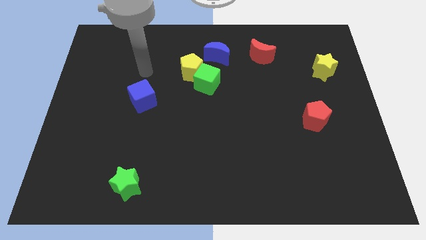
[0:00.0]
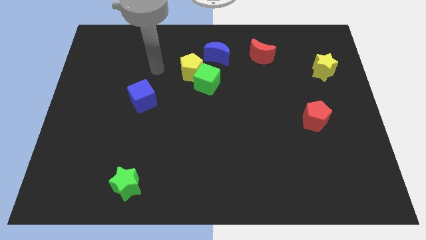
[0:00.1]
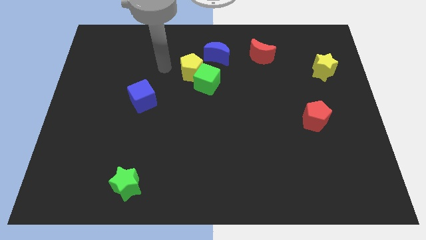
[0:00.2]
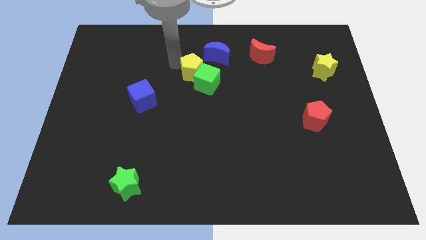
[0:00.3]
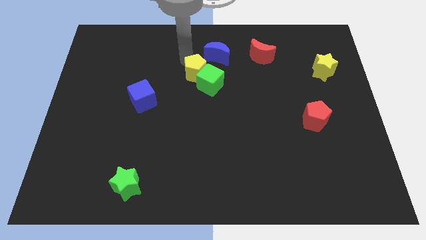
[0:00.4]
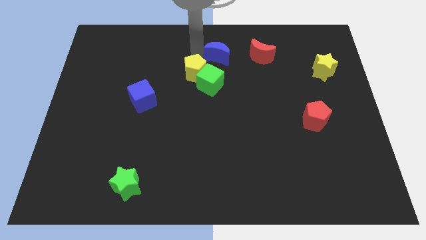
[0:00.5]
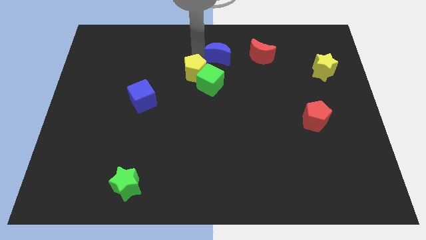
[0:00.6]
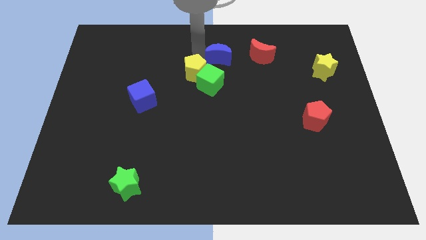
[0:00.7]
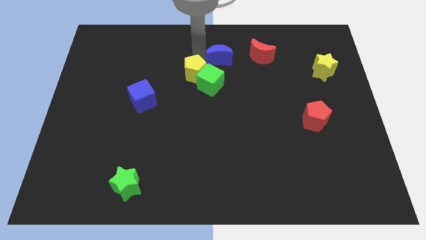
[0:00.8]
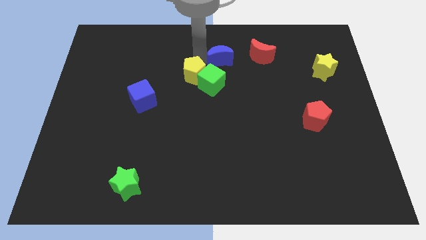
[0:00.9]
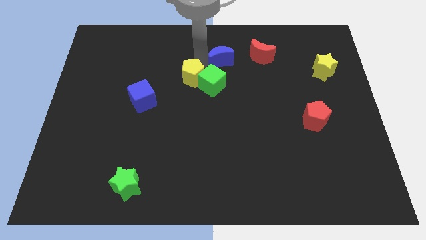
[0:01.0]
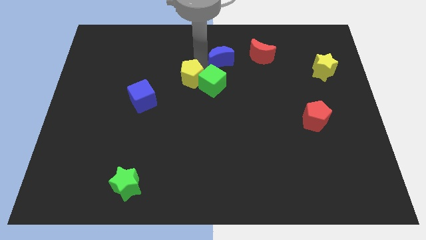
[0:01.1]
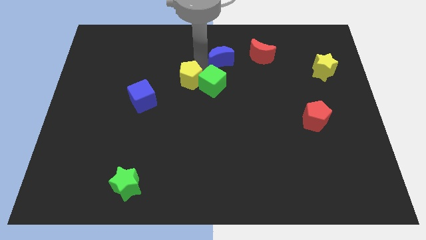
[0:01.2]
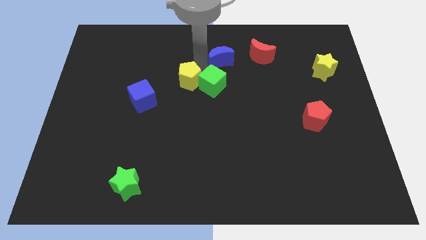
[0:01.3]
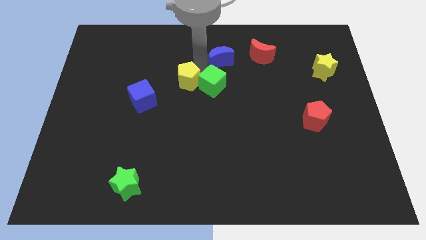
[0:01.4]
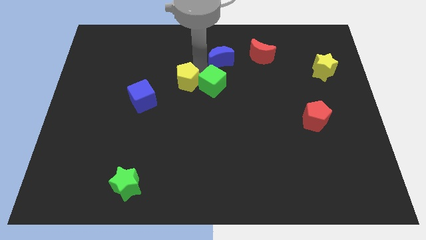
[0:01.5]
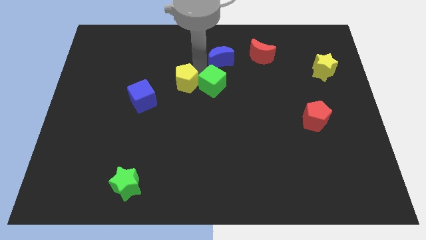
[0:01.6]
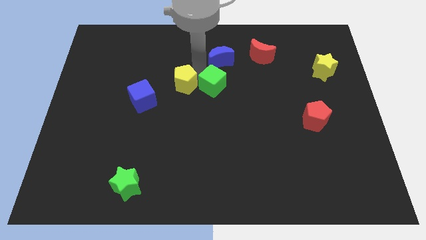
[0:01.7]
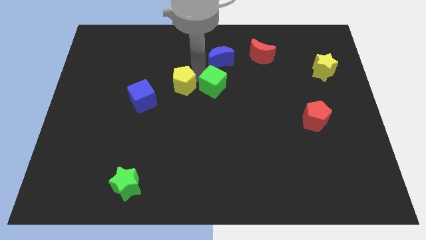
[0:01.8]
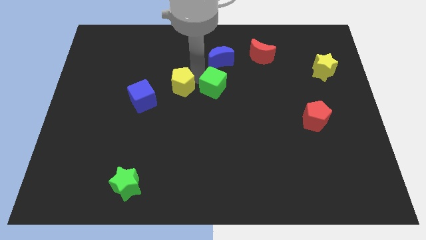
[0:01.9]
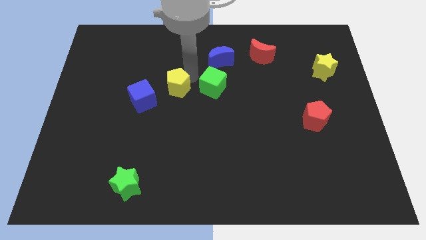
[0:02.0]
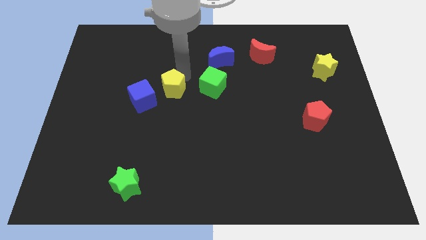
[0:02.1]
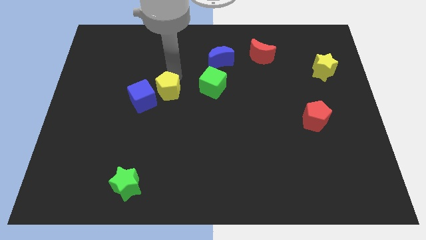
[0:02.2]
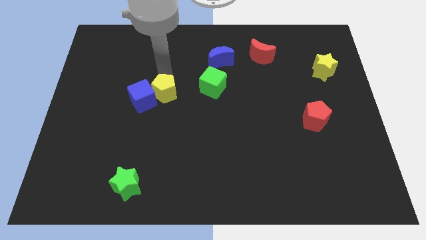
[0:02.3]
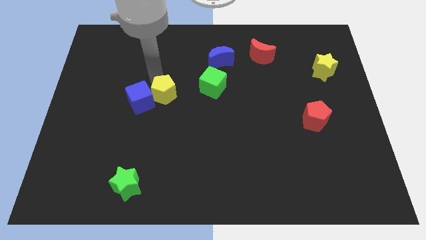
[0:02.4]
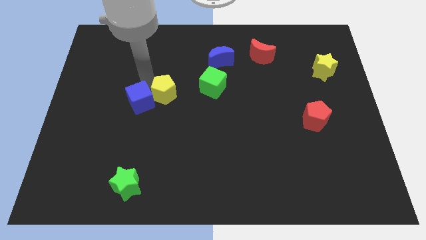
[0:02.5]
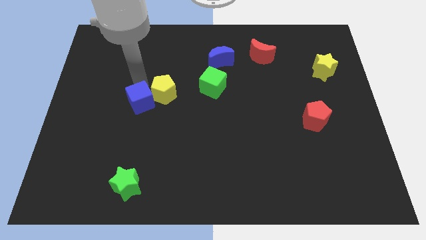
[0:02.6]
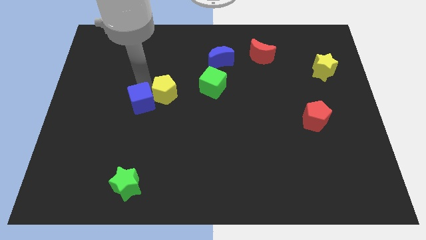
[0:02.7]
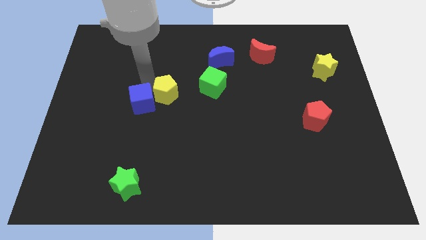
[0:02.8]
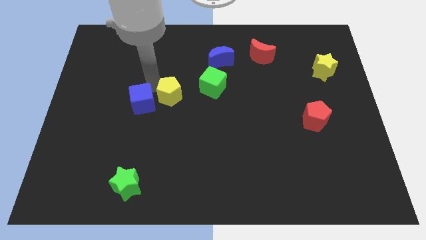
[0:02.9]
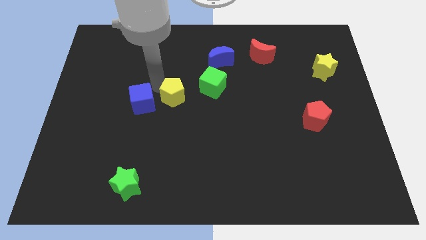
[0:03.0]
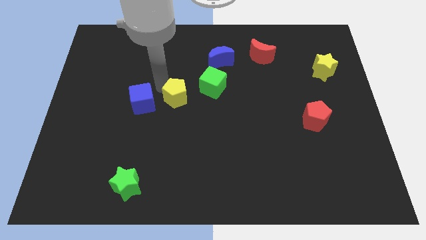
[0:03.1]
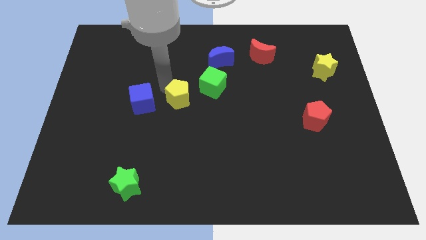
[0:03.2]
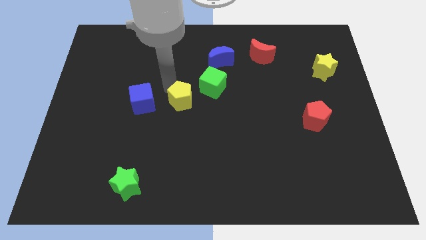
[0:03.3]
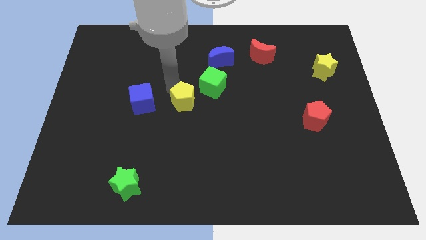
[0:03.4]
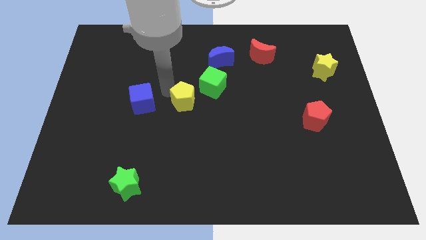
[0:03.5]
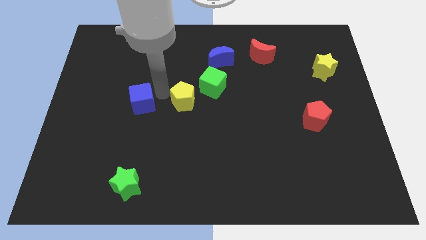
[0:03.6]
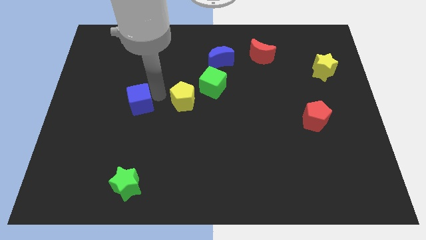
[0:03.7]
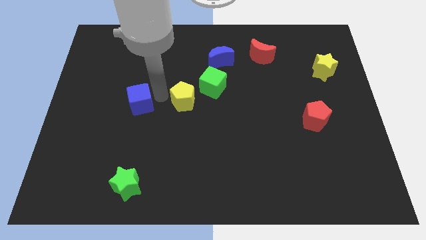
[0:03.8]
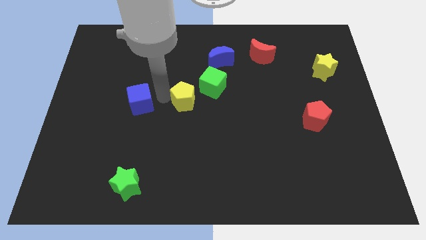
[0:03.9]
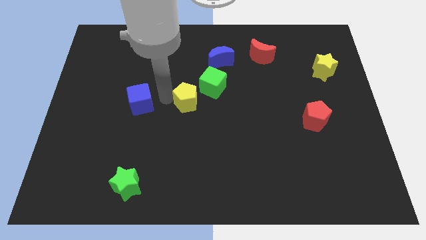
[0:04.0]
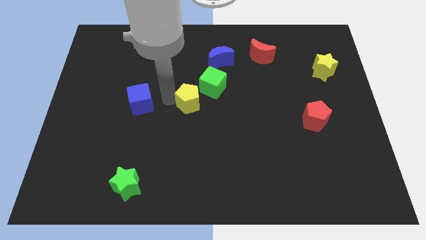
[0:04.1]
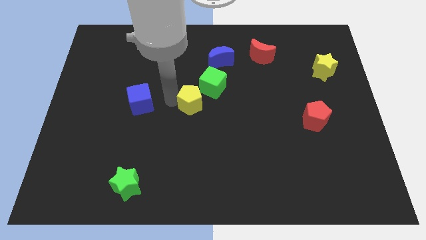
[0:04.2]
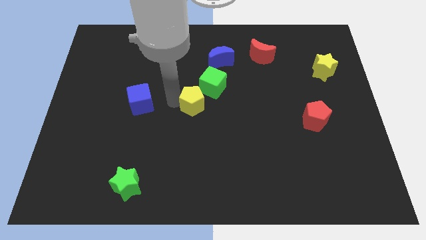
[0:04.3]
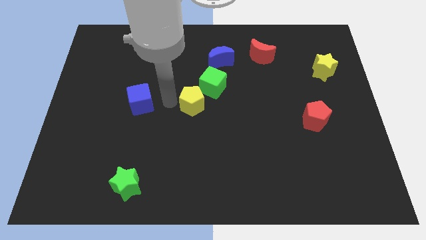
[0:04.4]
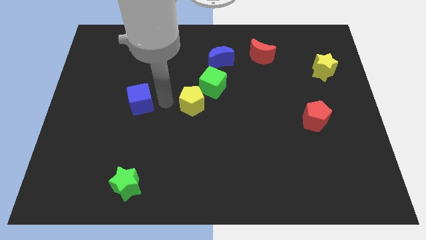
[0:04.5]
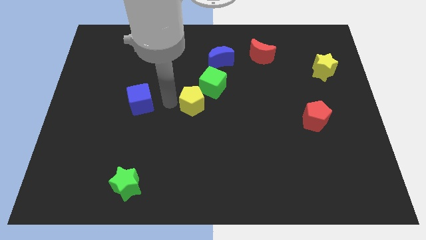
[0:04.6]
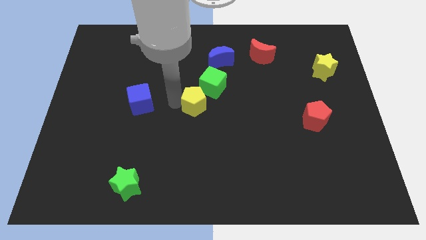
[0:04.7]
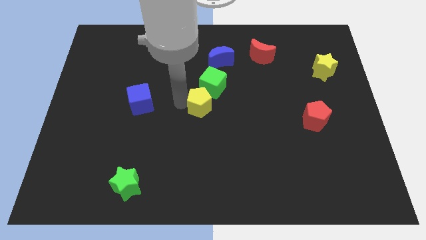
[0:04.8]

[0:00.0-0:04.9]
move the yellow pentagon a bit downwards and to the right diagonally

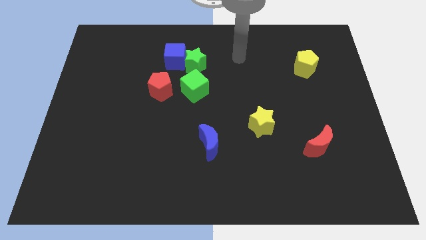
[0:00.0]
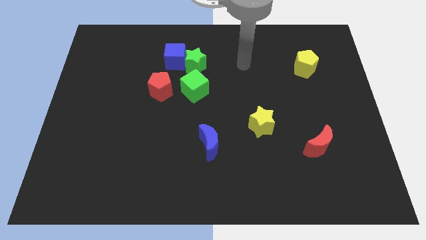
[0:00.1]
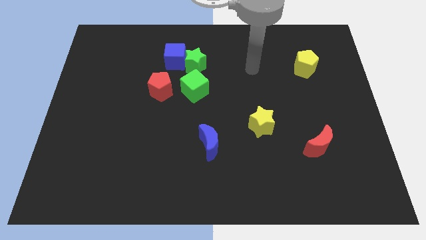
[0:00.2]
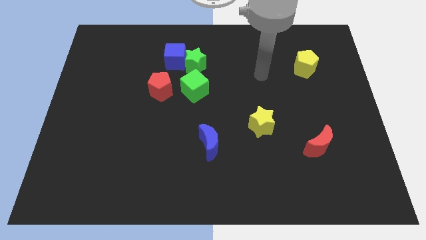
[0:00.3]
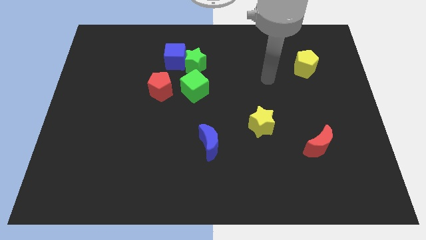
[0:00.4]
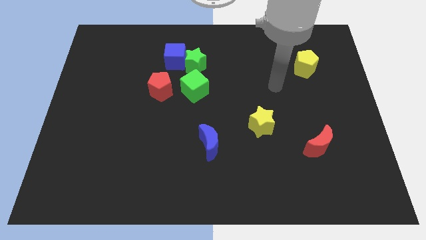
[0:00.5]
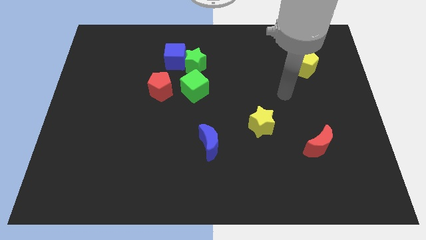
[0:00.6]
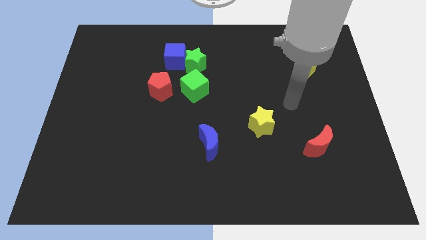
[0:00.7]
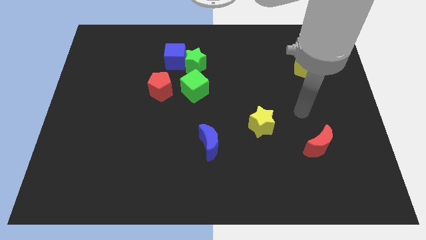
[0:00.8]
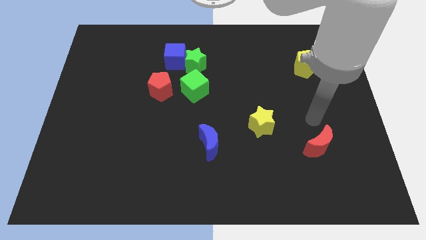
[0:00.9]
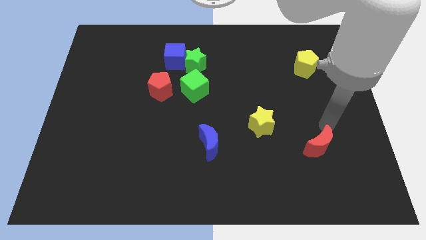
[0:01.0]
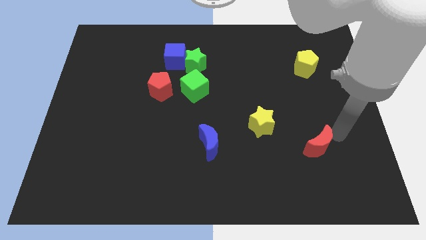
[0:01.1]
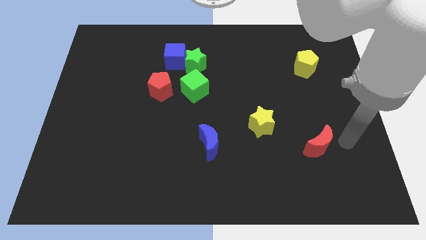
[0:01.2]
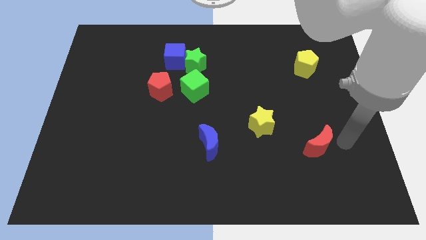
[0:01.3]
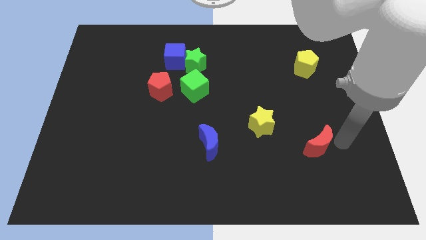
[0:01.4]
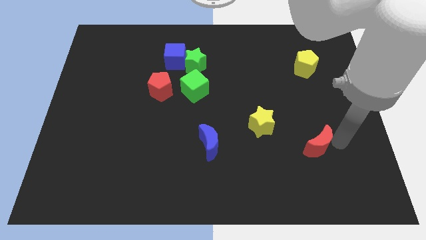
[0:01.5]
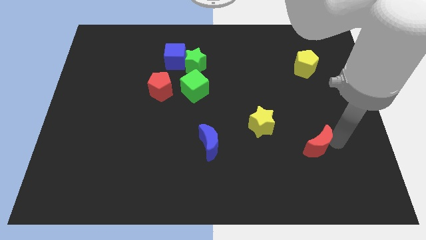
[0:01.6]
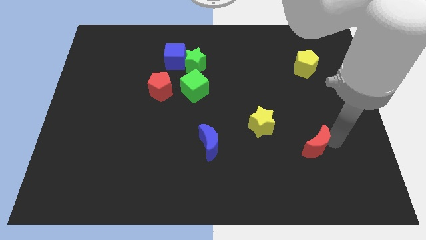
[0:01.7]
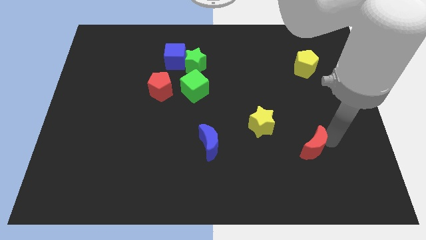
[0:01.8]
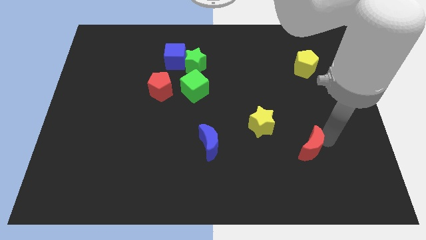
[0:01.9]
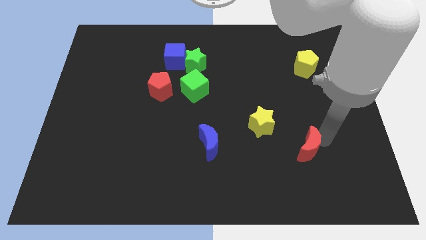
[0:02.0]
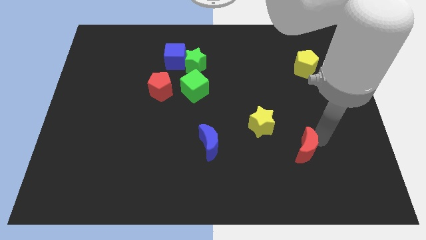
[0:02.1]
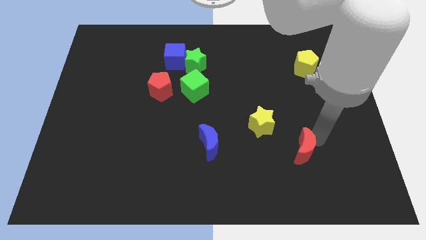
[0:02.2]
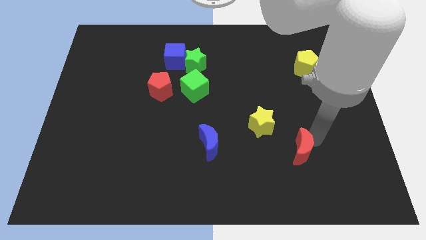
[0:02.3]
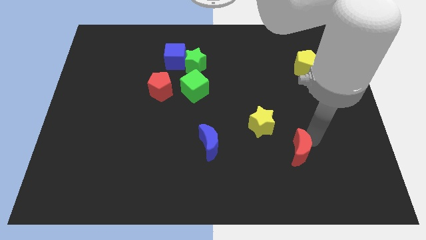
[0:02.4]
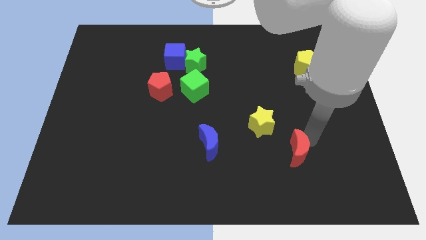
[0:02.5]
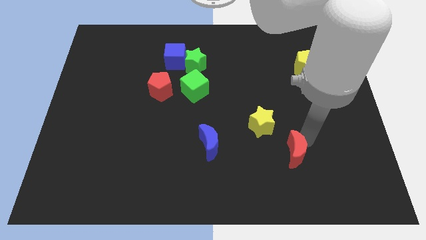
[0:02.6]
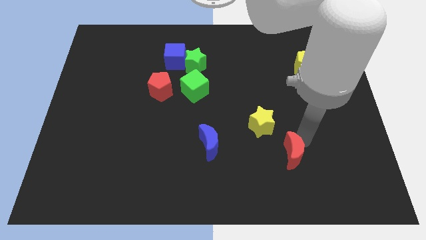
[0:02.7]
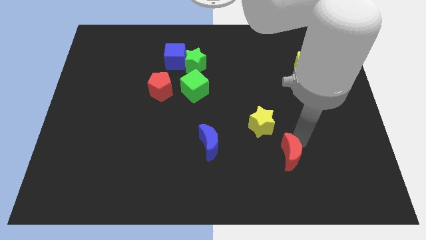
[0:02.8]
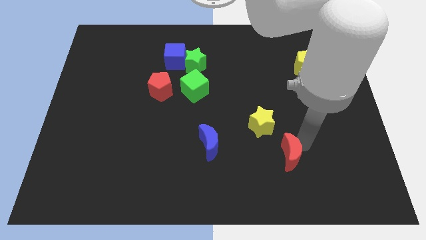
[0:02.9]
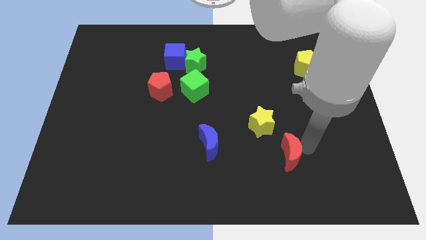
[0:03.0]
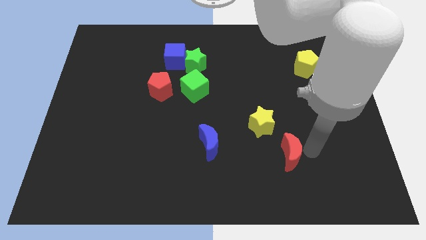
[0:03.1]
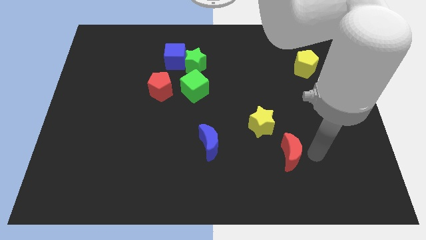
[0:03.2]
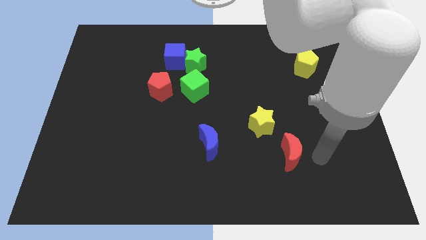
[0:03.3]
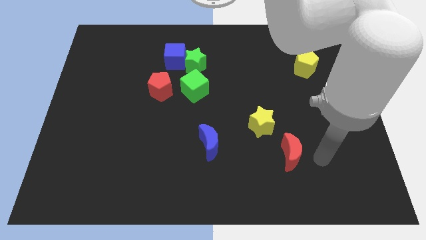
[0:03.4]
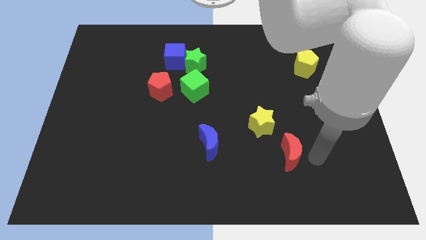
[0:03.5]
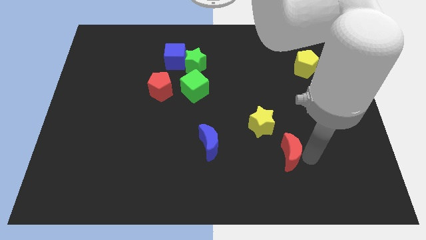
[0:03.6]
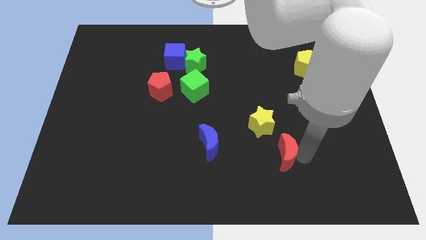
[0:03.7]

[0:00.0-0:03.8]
push the red moon a little to the left
